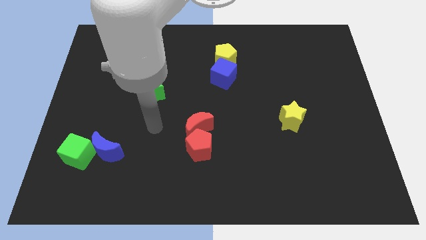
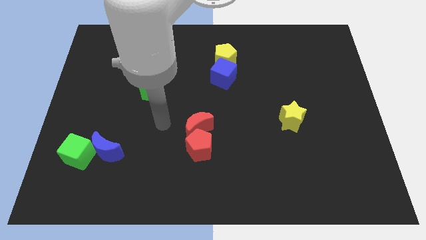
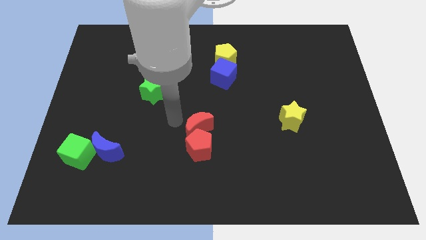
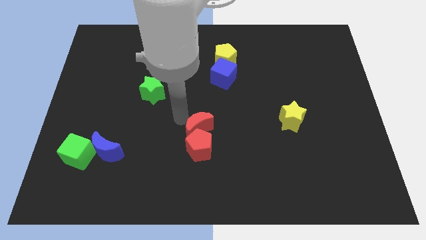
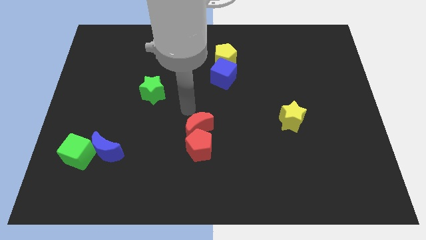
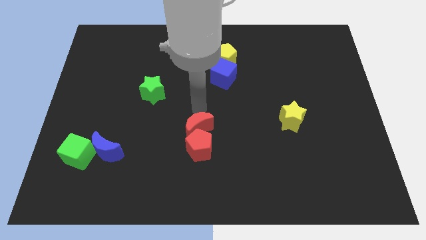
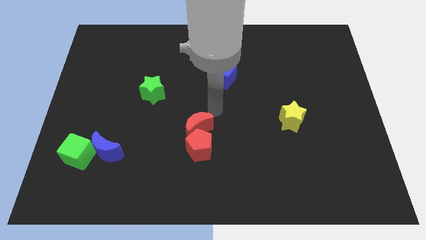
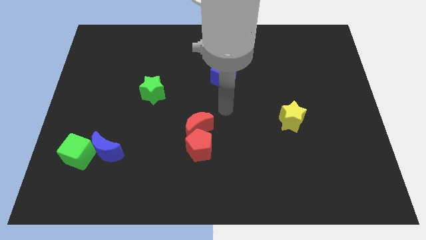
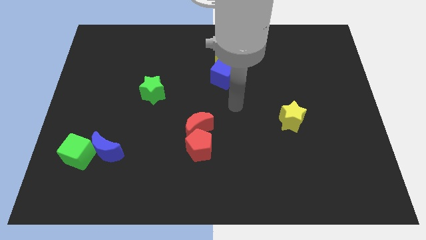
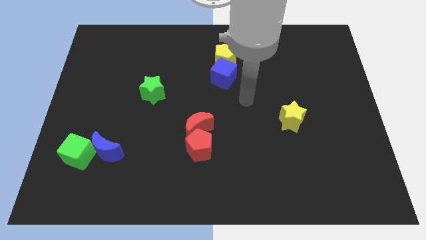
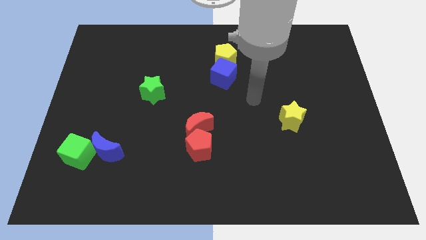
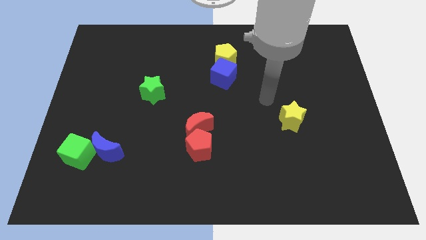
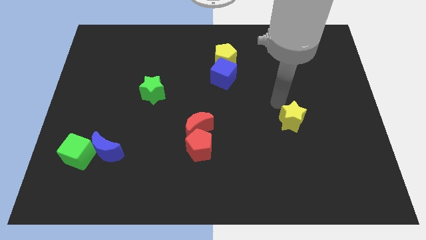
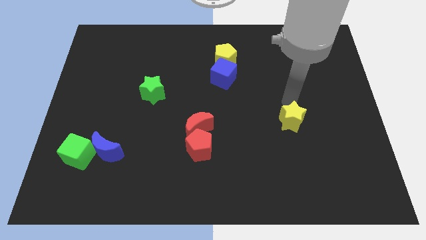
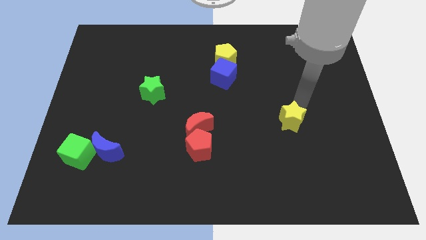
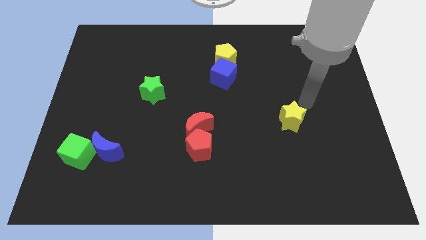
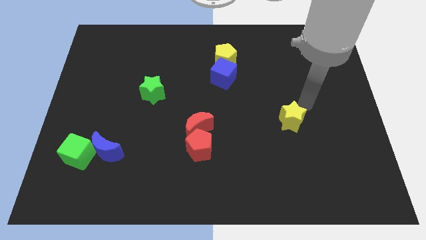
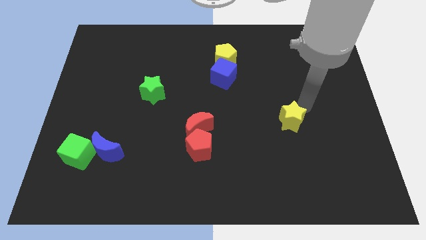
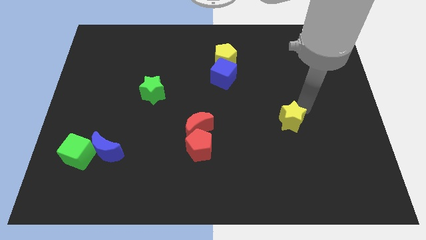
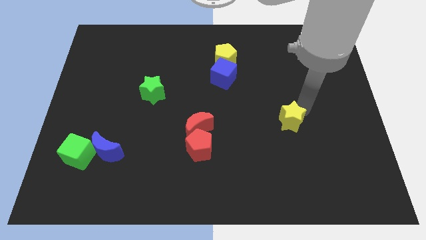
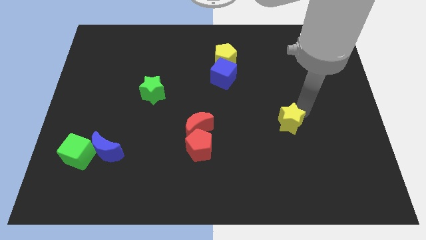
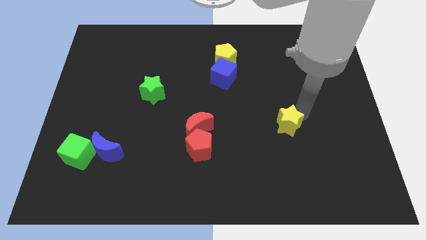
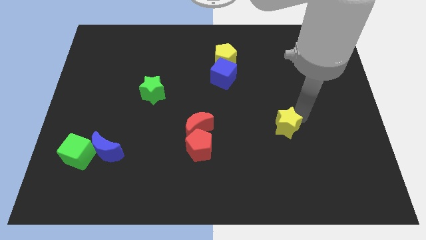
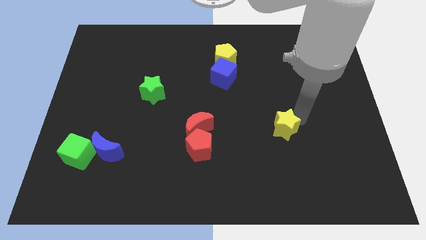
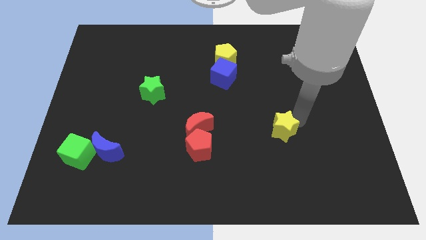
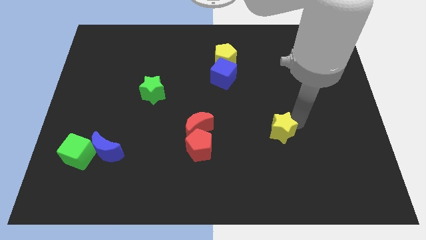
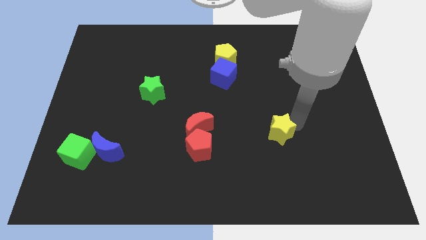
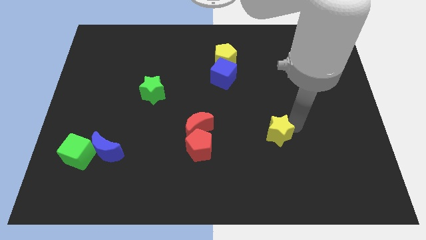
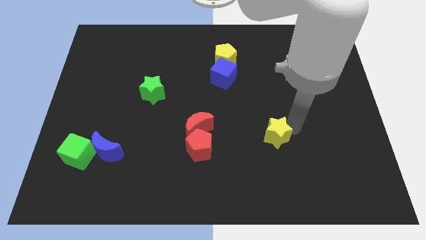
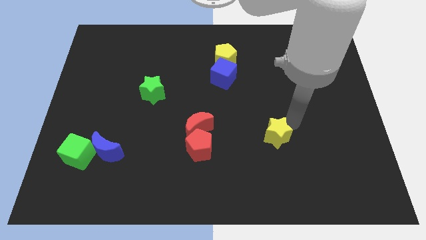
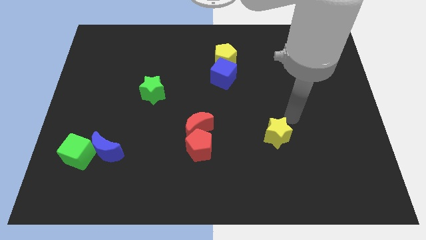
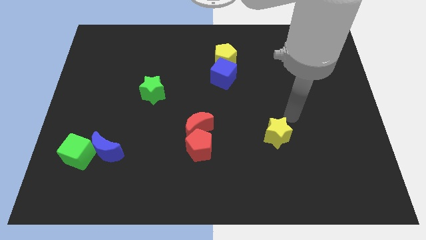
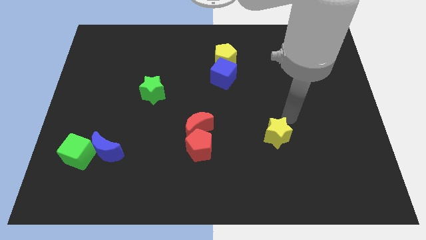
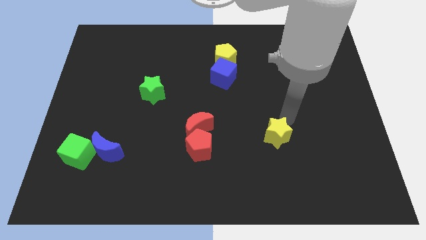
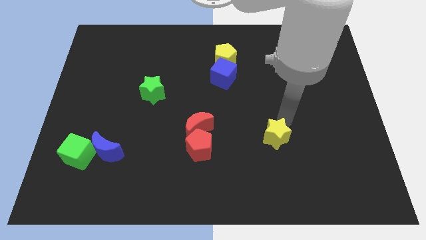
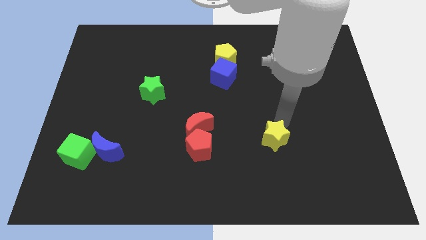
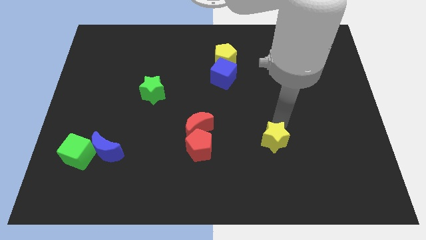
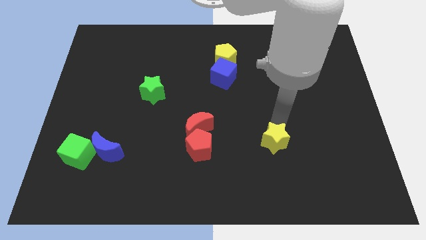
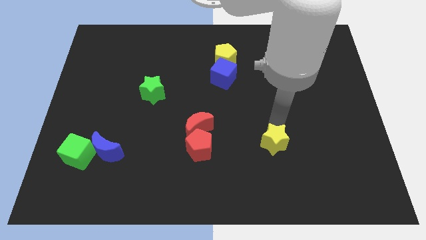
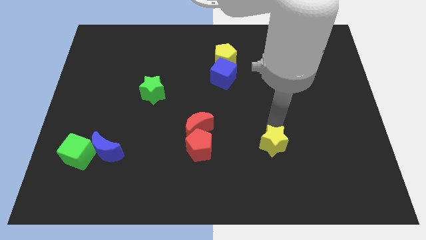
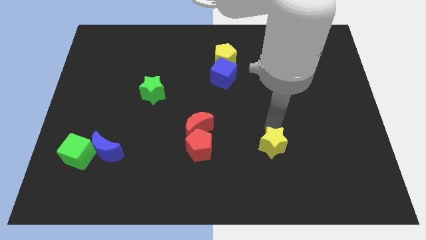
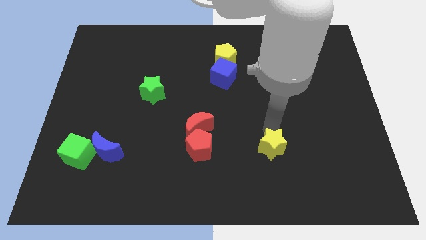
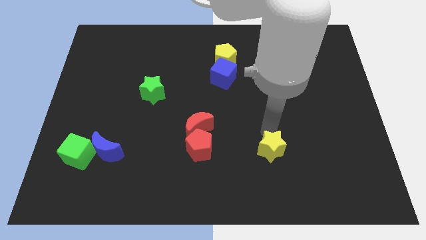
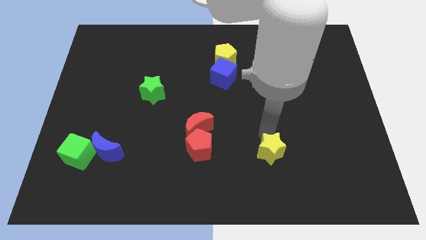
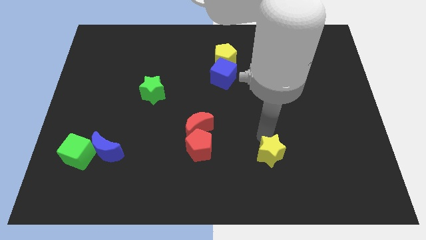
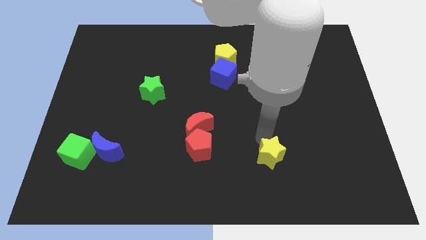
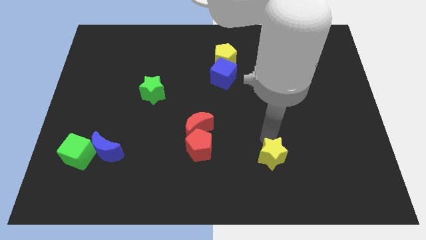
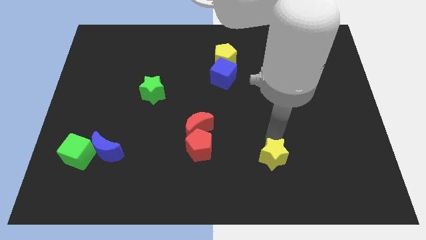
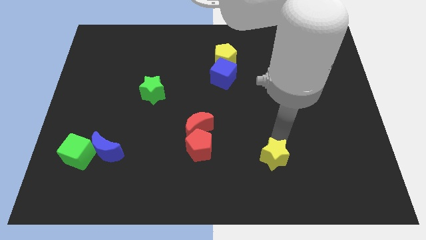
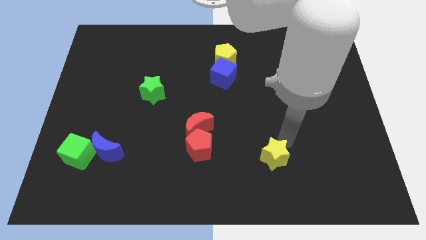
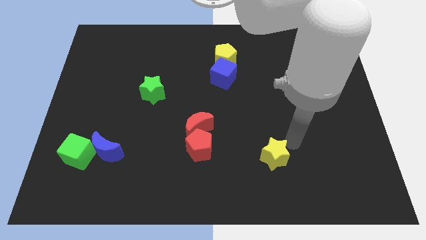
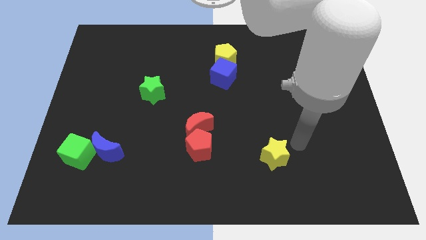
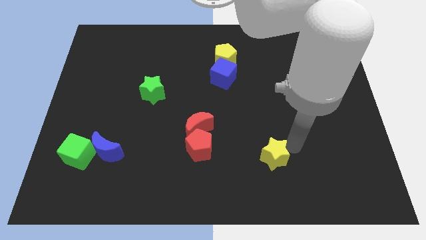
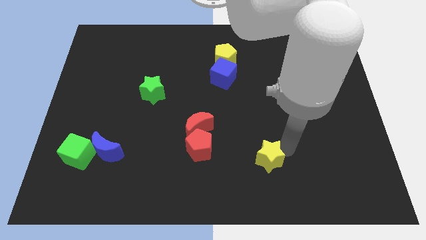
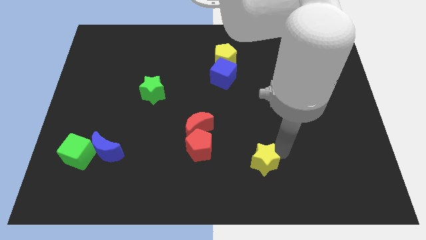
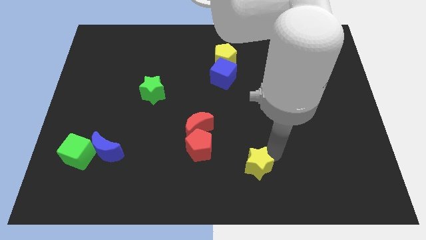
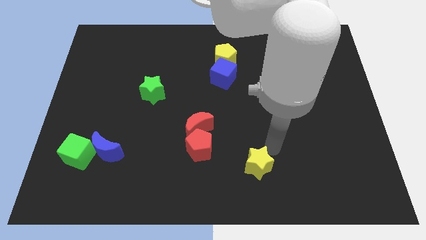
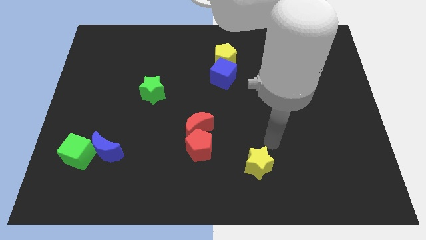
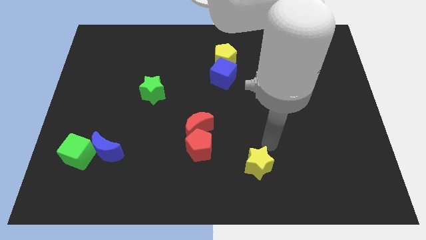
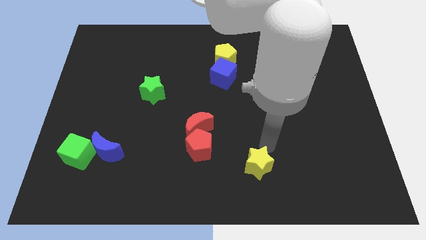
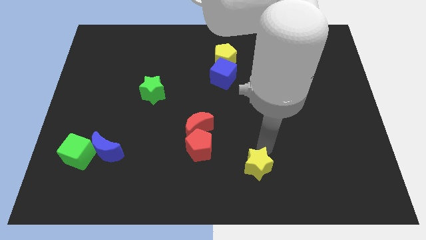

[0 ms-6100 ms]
put the yellow star to the bottom
